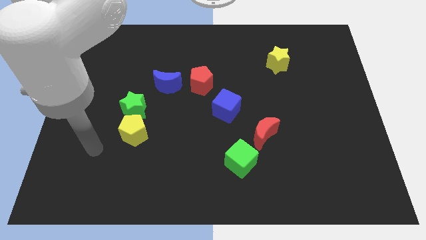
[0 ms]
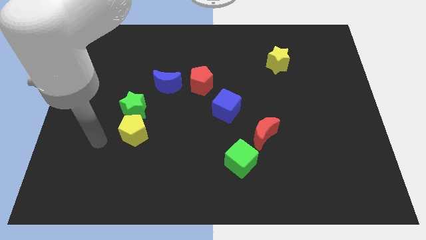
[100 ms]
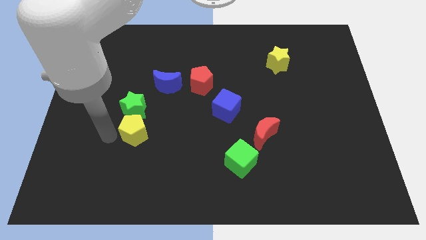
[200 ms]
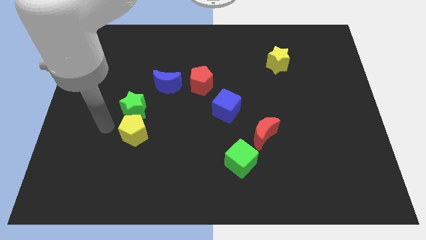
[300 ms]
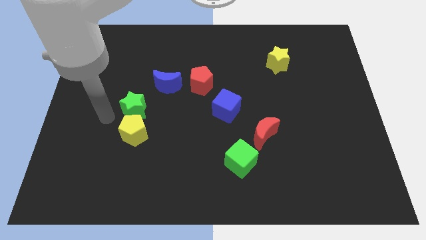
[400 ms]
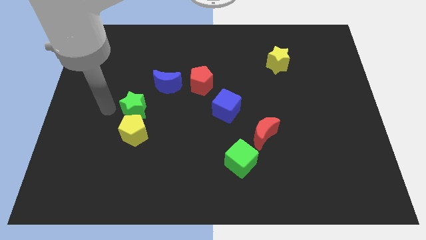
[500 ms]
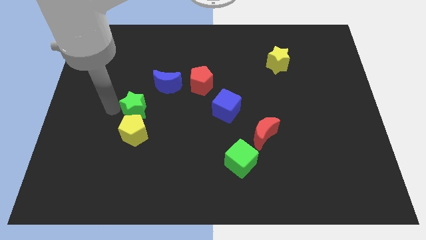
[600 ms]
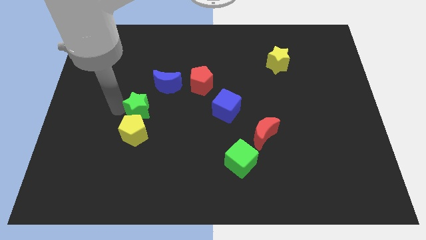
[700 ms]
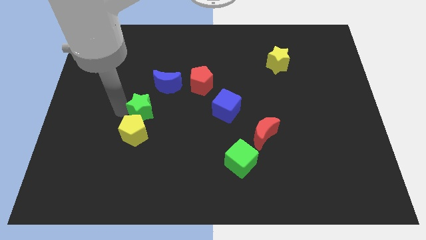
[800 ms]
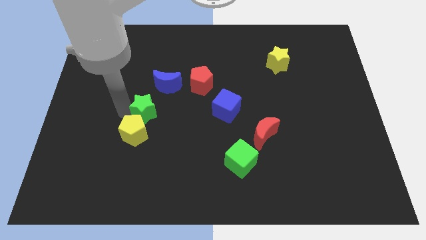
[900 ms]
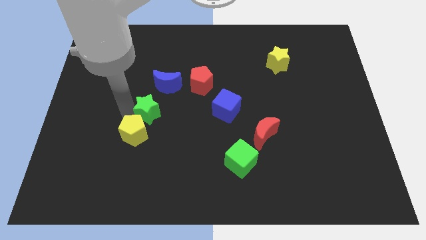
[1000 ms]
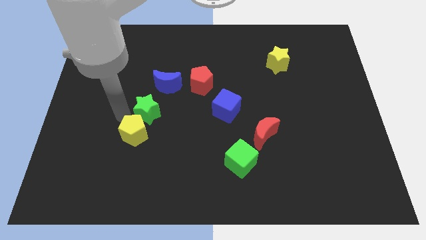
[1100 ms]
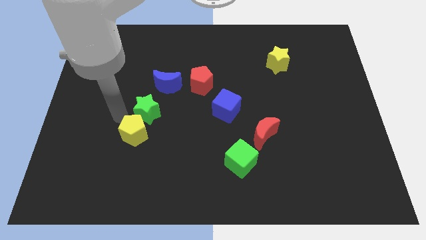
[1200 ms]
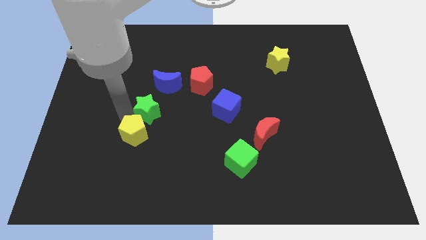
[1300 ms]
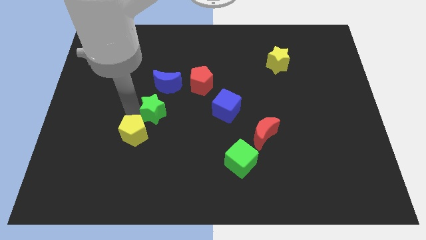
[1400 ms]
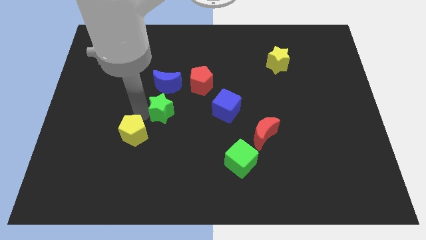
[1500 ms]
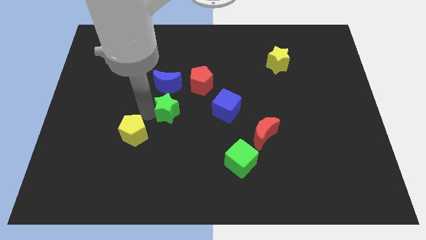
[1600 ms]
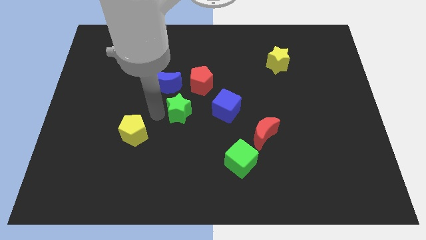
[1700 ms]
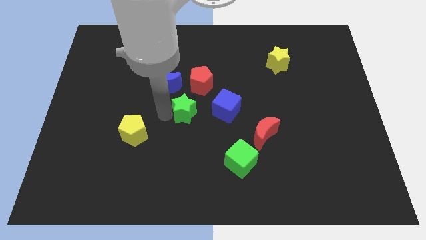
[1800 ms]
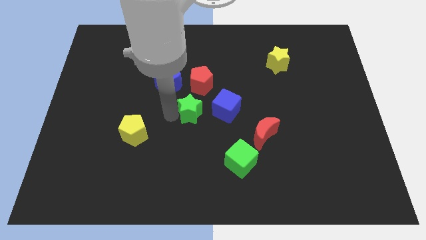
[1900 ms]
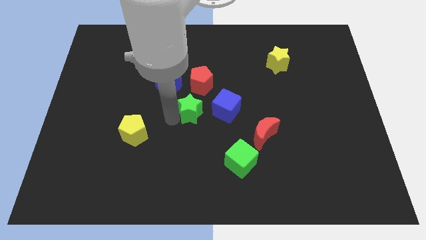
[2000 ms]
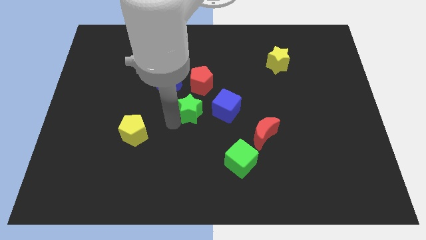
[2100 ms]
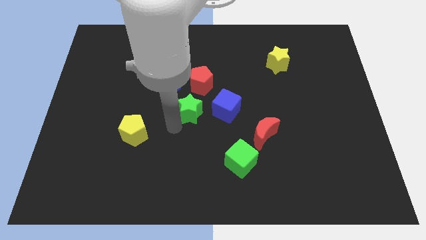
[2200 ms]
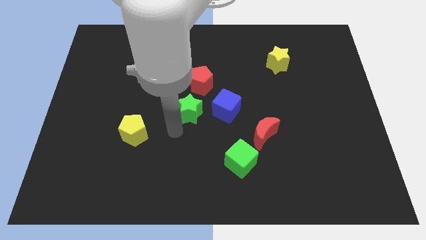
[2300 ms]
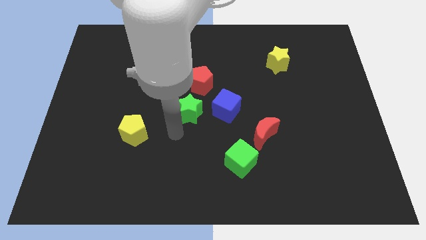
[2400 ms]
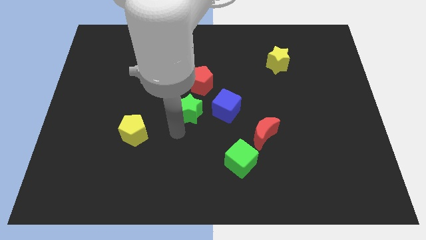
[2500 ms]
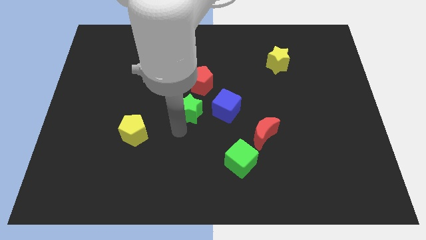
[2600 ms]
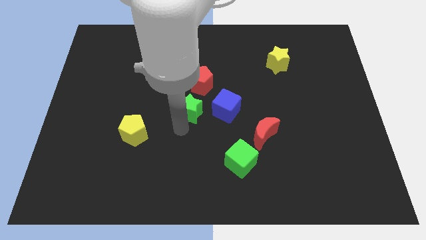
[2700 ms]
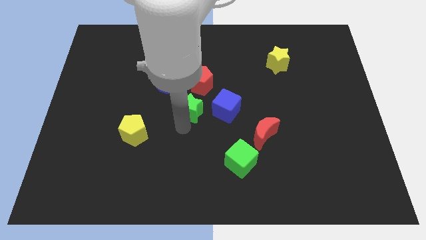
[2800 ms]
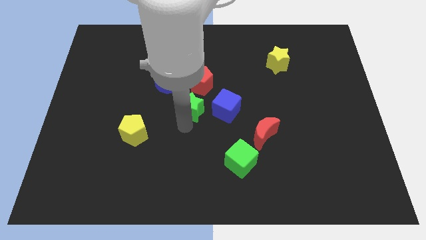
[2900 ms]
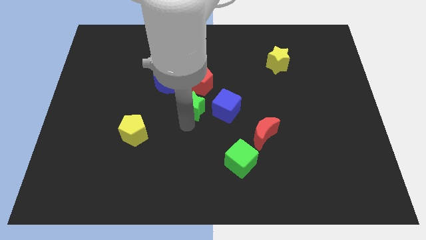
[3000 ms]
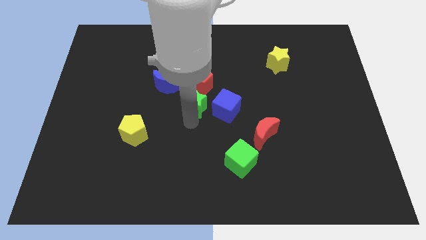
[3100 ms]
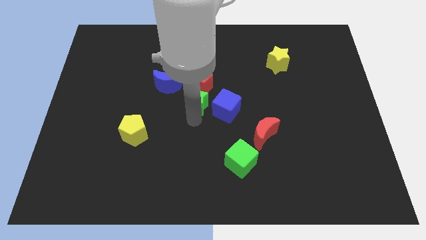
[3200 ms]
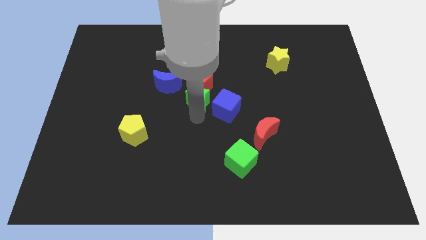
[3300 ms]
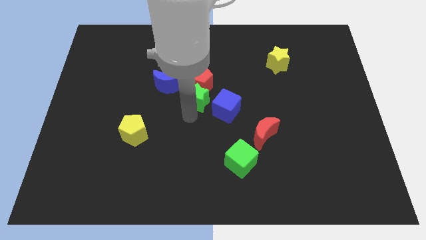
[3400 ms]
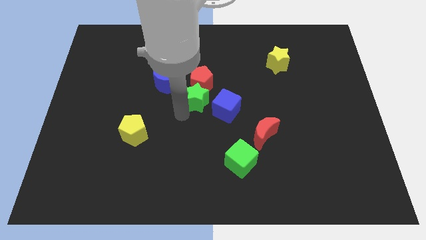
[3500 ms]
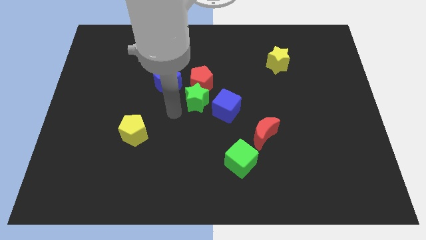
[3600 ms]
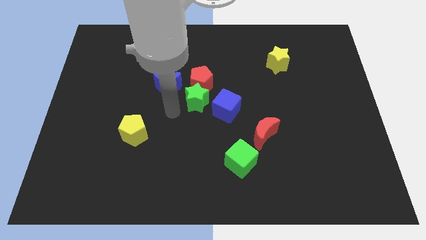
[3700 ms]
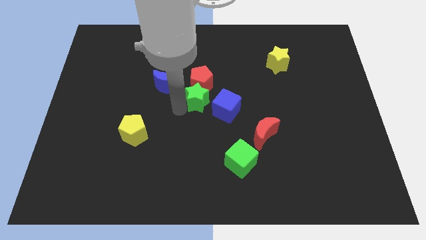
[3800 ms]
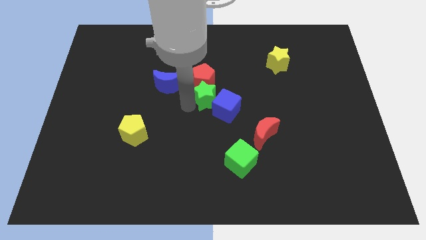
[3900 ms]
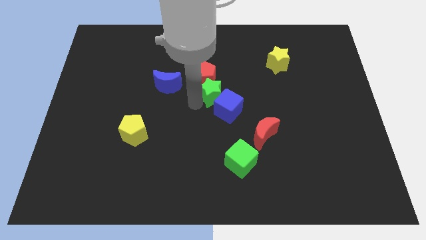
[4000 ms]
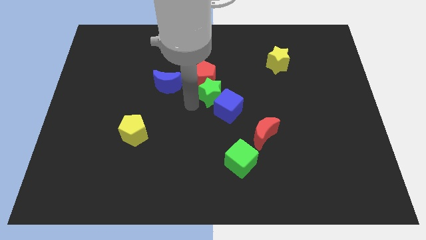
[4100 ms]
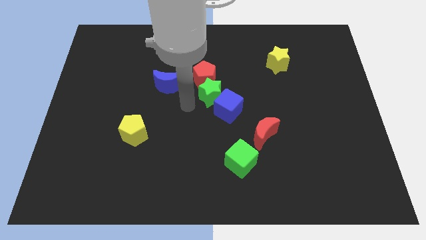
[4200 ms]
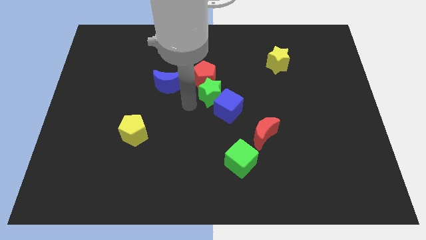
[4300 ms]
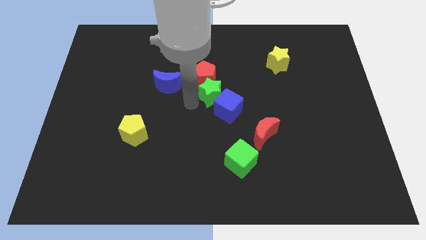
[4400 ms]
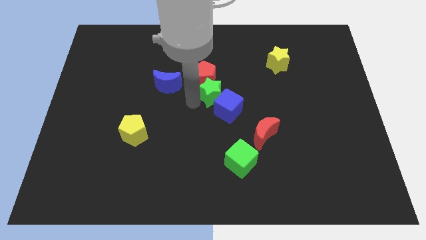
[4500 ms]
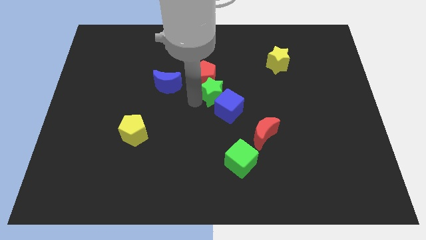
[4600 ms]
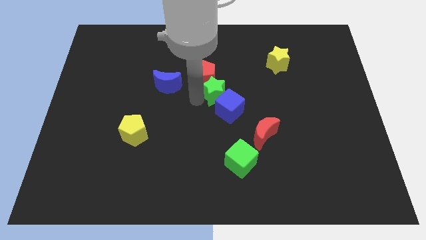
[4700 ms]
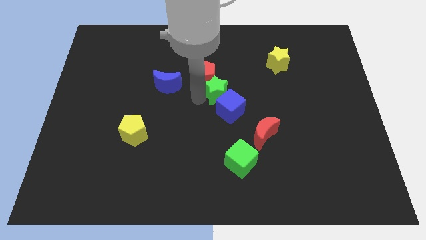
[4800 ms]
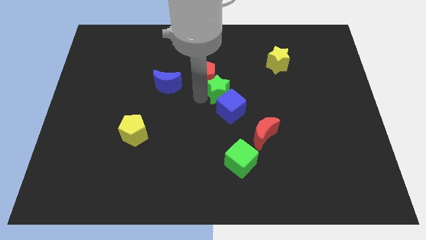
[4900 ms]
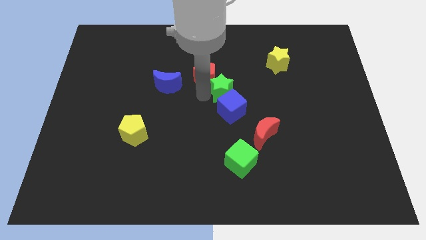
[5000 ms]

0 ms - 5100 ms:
slide the green star to the right side of the red pentagon

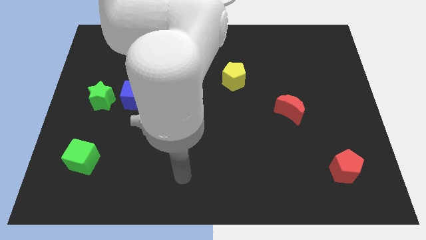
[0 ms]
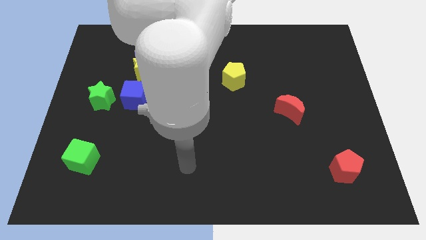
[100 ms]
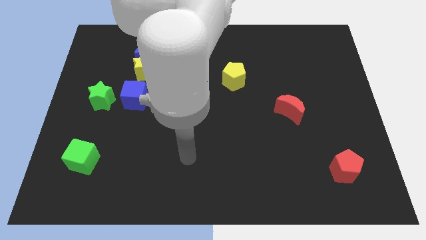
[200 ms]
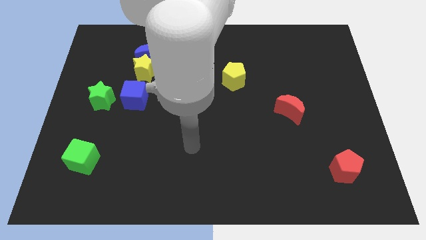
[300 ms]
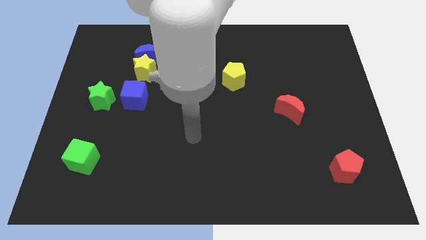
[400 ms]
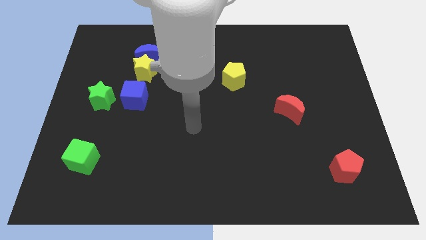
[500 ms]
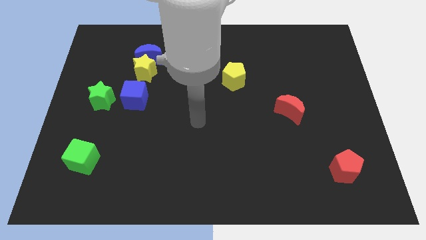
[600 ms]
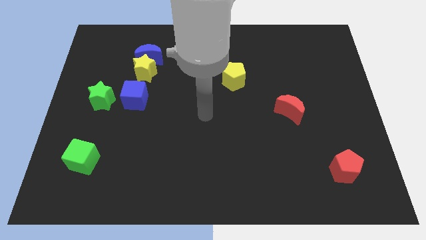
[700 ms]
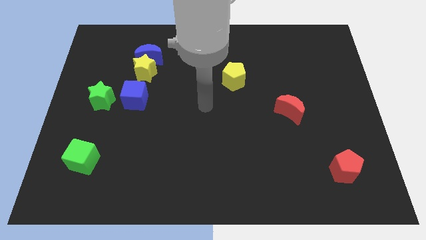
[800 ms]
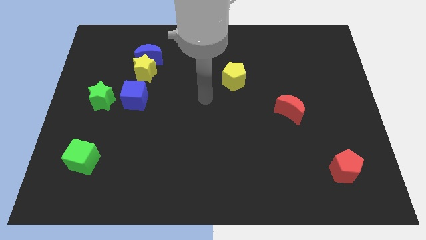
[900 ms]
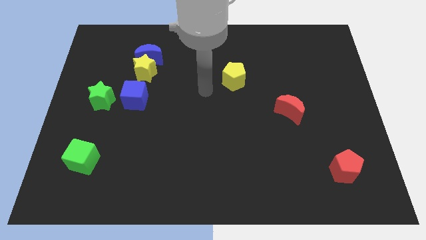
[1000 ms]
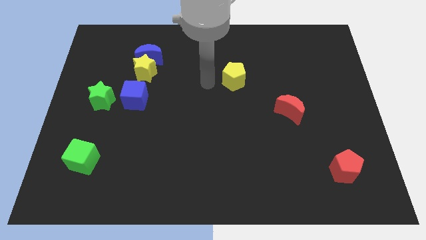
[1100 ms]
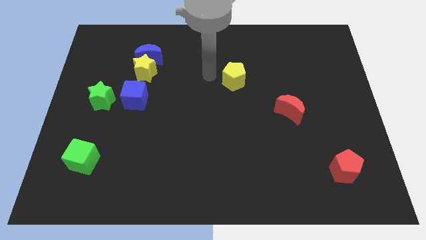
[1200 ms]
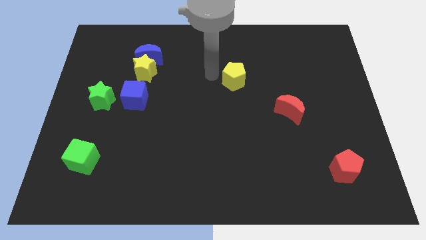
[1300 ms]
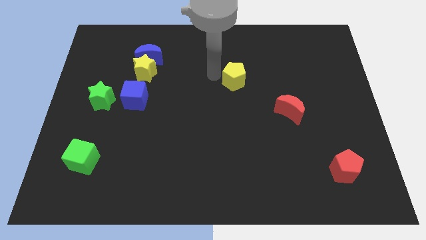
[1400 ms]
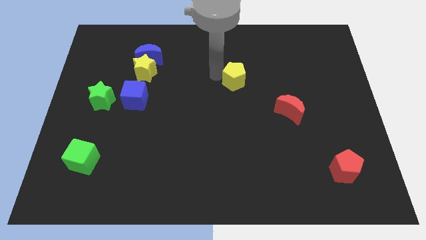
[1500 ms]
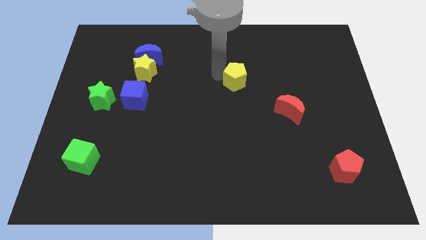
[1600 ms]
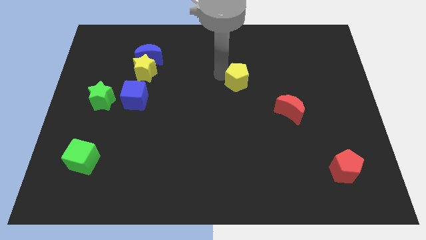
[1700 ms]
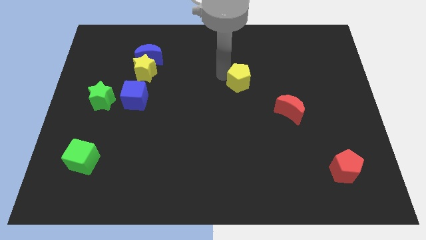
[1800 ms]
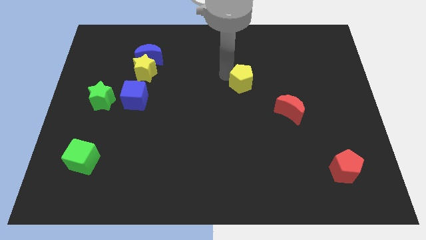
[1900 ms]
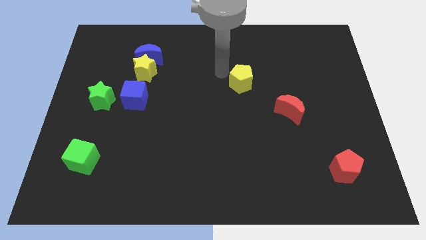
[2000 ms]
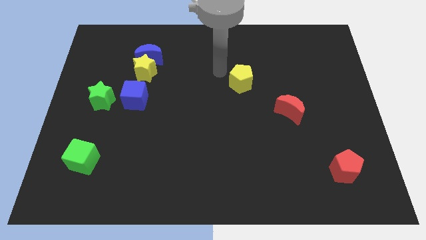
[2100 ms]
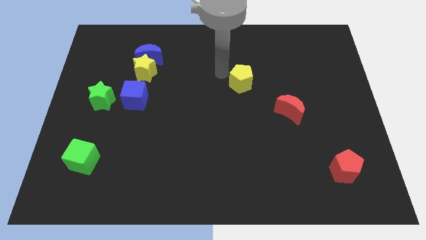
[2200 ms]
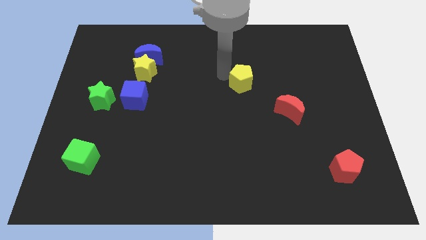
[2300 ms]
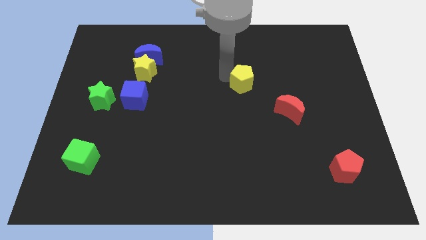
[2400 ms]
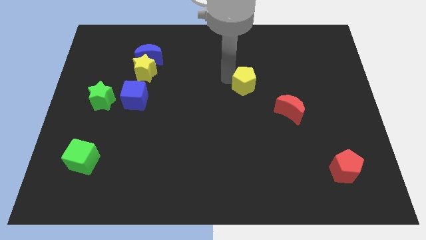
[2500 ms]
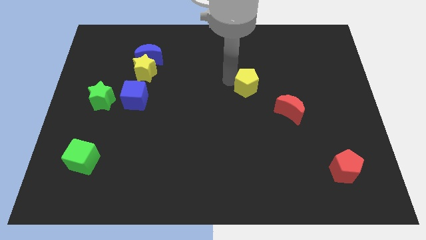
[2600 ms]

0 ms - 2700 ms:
move the yellow pentagon to the top left of the red moon
